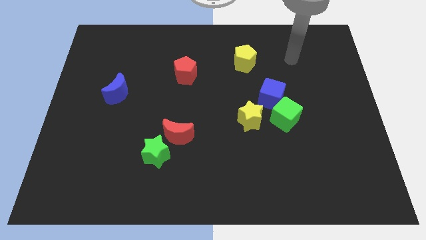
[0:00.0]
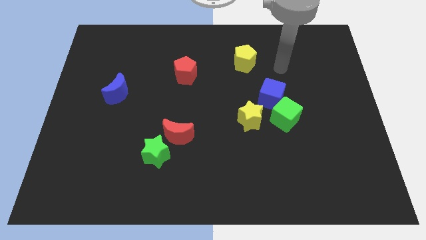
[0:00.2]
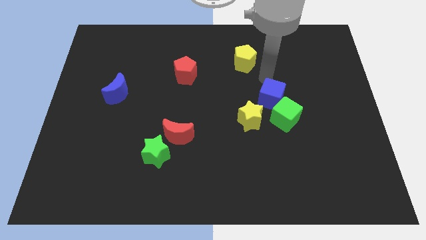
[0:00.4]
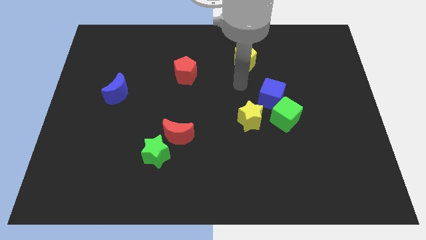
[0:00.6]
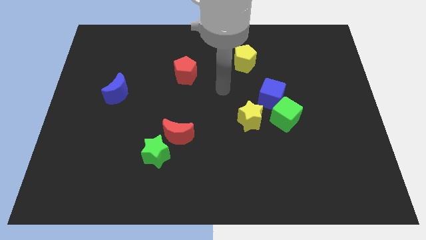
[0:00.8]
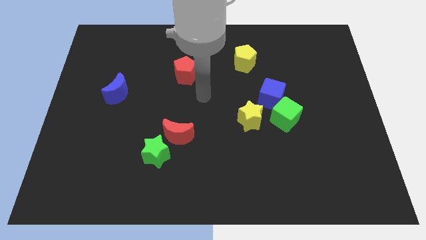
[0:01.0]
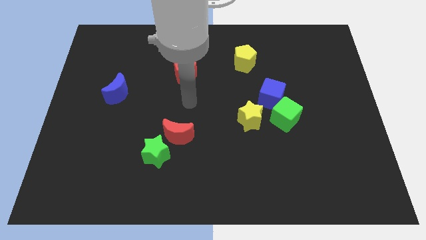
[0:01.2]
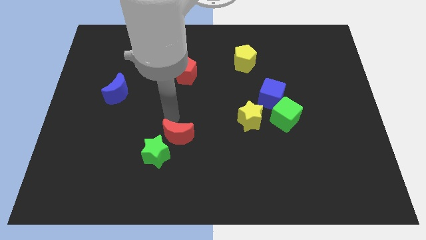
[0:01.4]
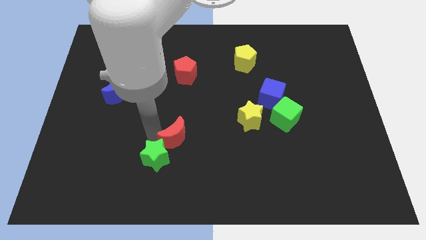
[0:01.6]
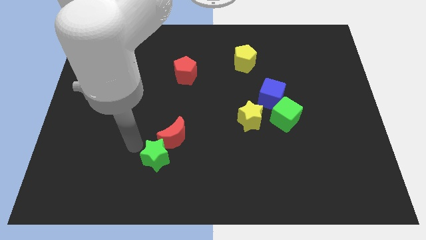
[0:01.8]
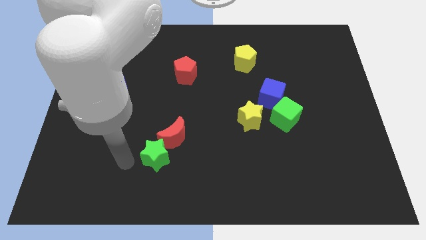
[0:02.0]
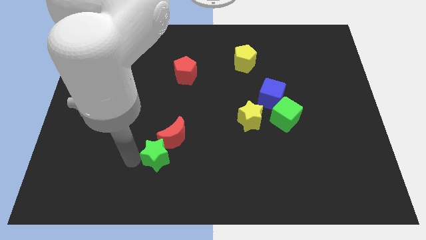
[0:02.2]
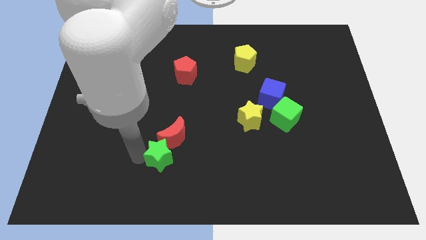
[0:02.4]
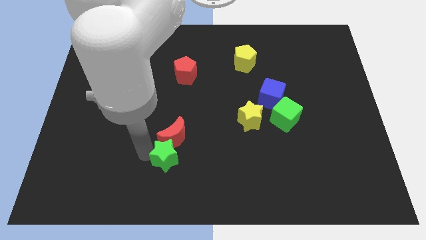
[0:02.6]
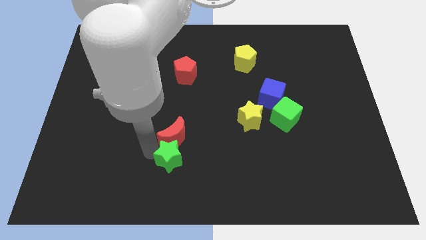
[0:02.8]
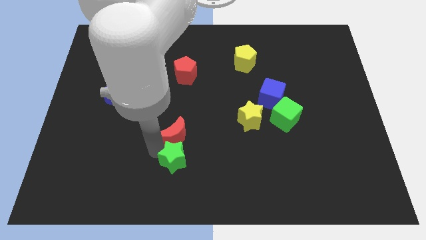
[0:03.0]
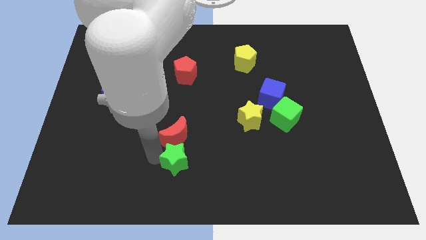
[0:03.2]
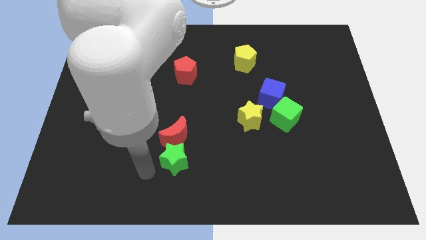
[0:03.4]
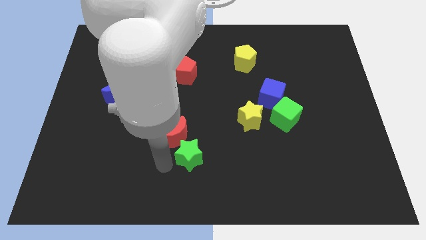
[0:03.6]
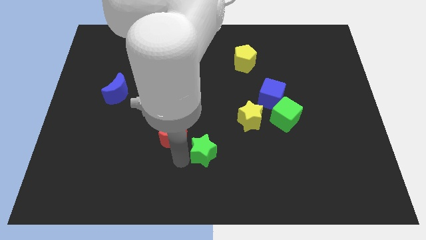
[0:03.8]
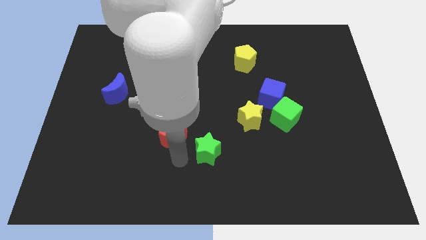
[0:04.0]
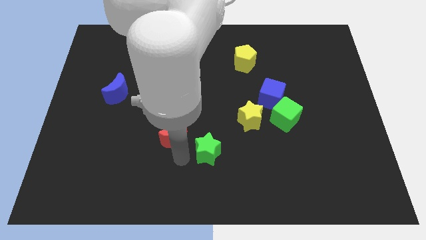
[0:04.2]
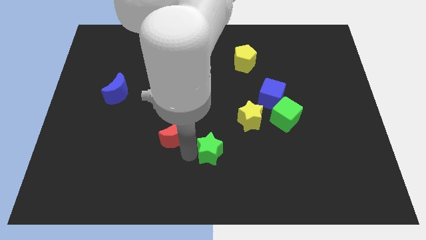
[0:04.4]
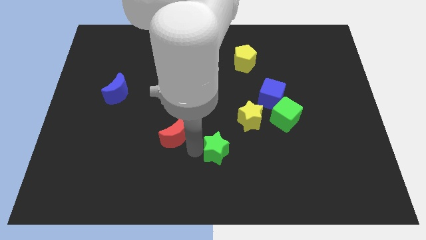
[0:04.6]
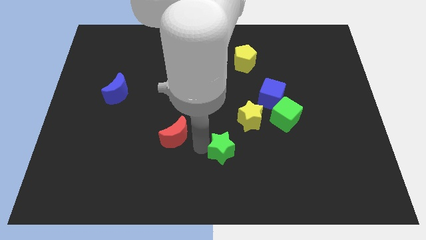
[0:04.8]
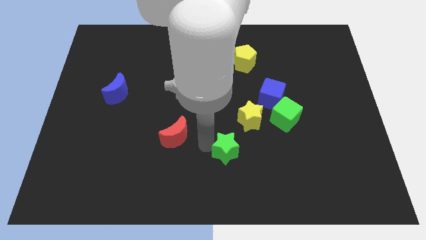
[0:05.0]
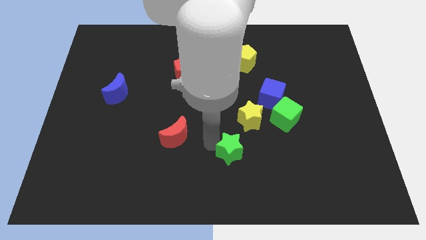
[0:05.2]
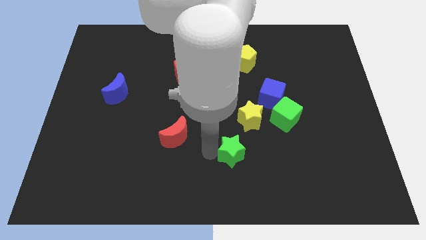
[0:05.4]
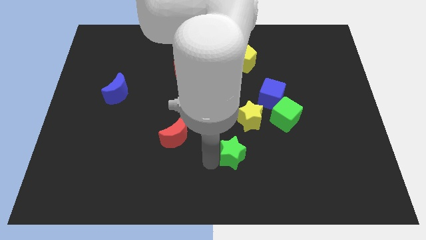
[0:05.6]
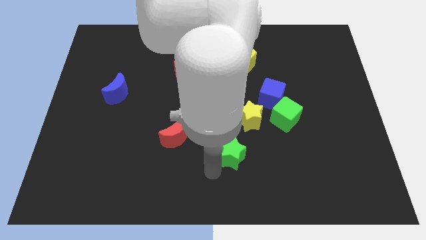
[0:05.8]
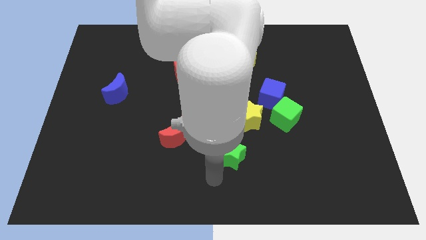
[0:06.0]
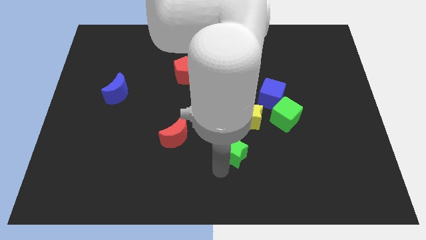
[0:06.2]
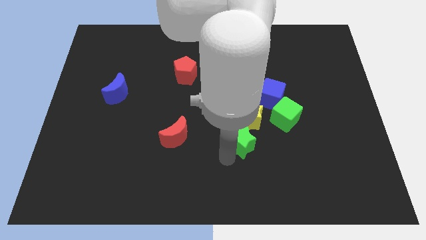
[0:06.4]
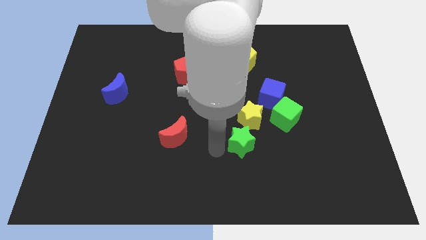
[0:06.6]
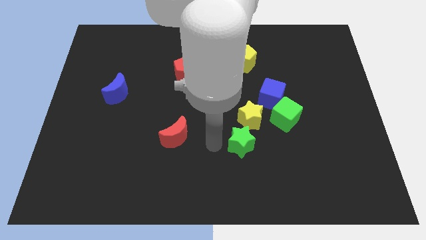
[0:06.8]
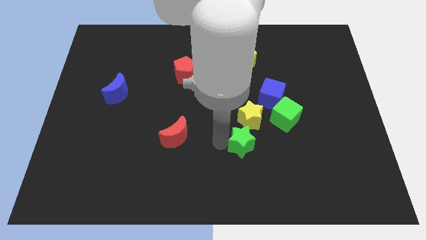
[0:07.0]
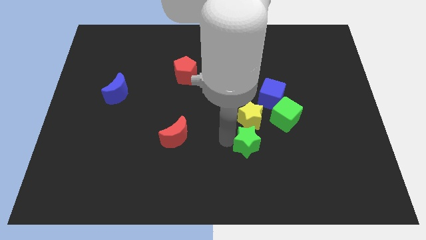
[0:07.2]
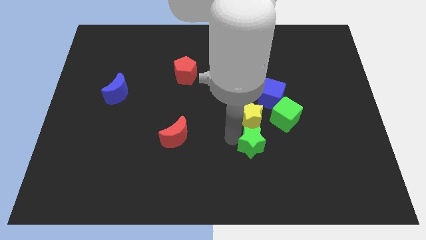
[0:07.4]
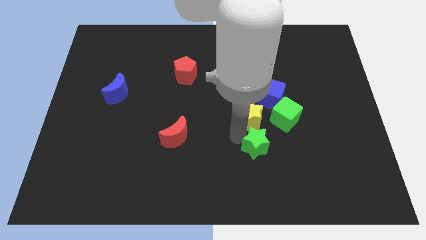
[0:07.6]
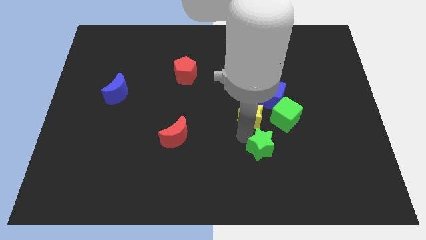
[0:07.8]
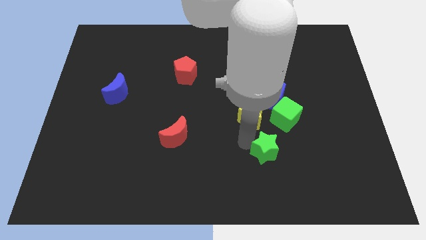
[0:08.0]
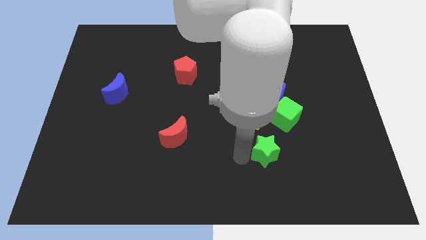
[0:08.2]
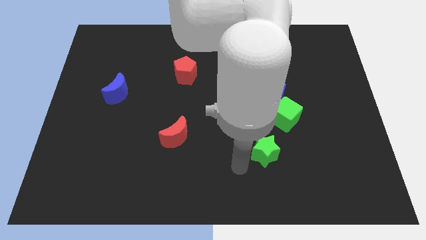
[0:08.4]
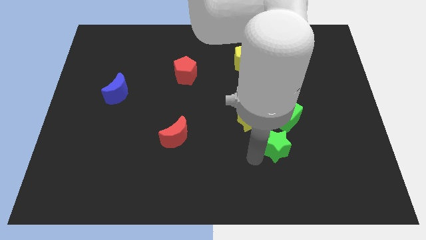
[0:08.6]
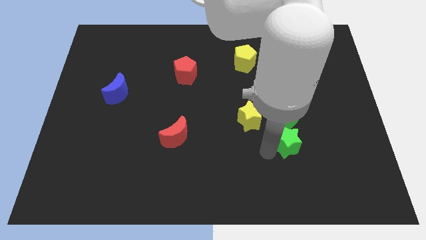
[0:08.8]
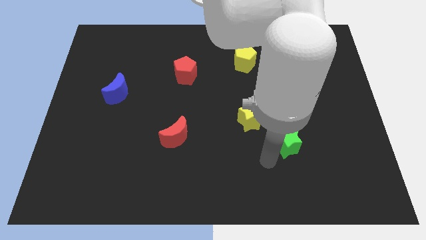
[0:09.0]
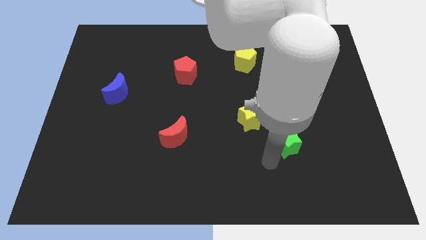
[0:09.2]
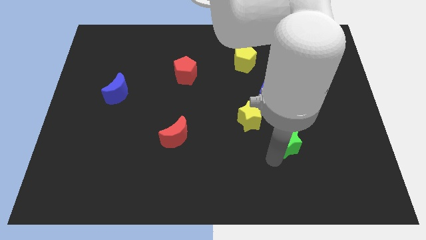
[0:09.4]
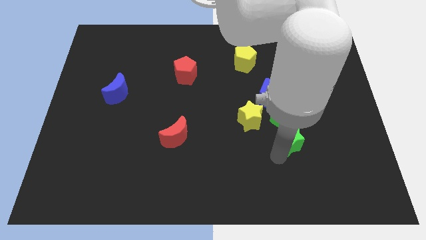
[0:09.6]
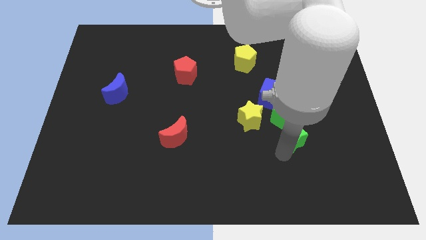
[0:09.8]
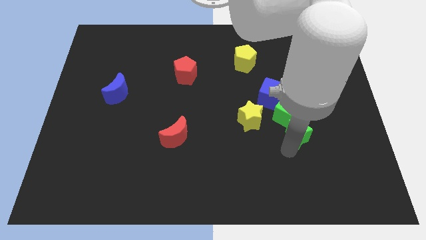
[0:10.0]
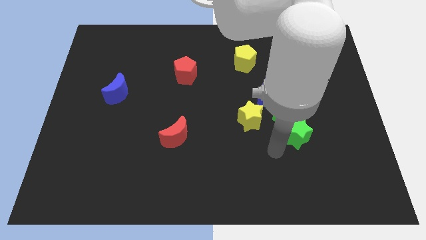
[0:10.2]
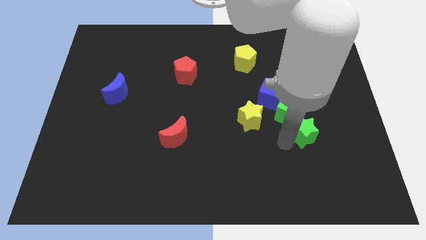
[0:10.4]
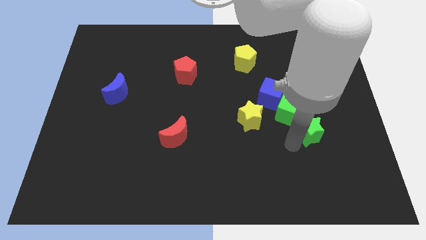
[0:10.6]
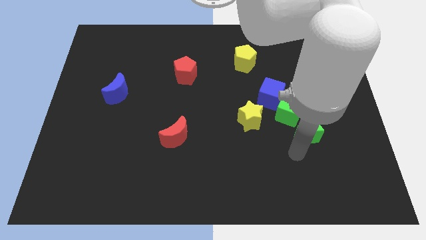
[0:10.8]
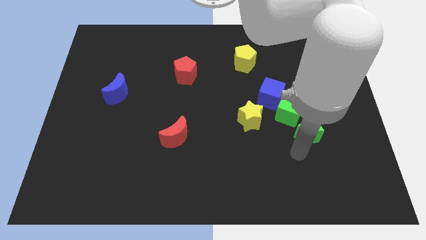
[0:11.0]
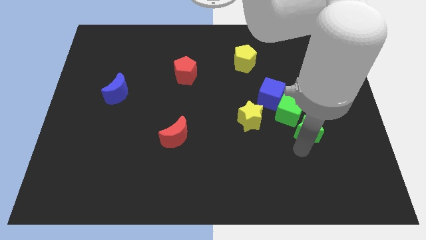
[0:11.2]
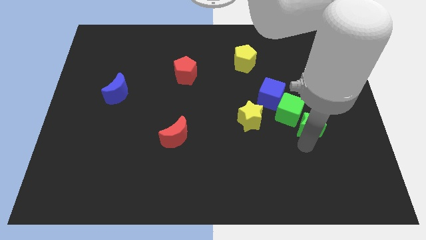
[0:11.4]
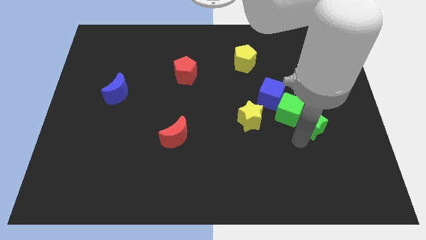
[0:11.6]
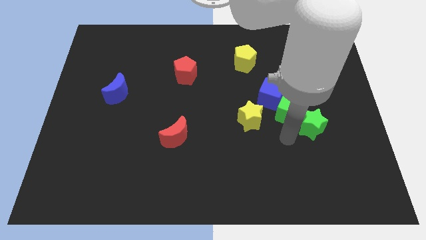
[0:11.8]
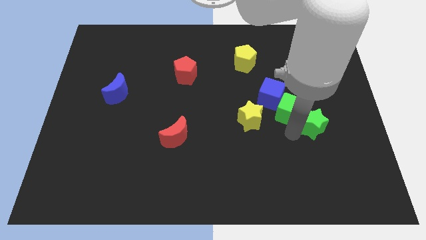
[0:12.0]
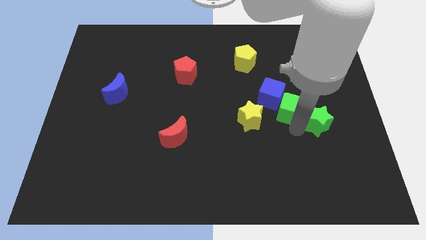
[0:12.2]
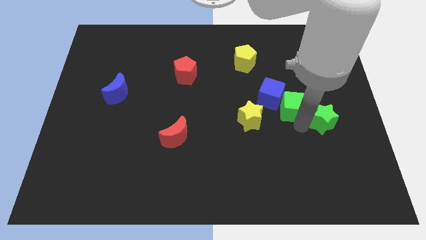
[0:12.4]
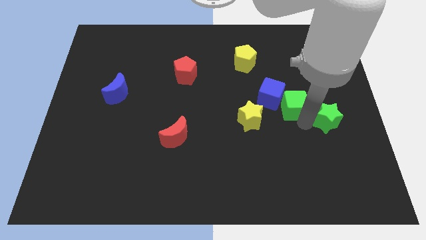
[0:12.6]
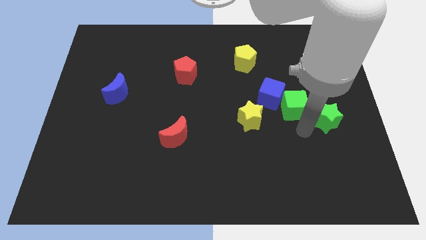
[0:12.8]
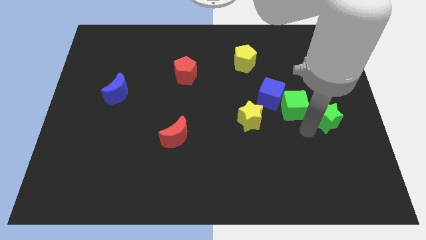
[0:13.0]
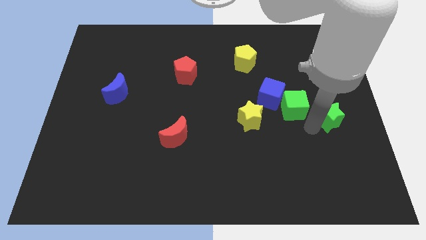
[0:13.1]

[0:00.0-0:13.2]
slide the green star to the right side

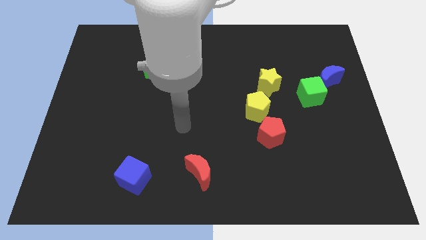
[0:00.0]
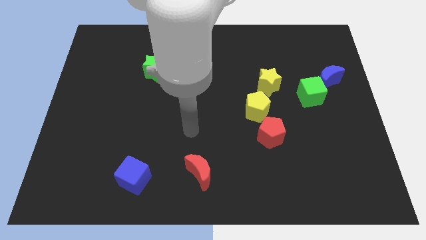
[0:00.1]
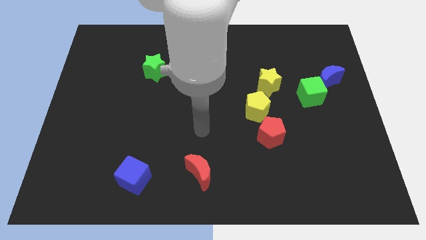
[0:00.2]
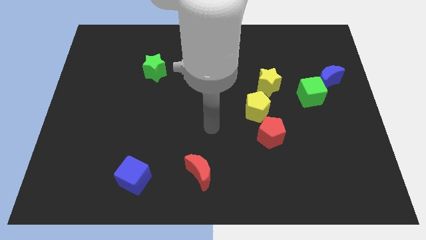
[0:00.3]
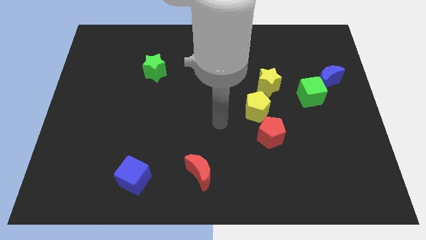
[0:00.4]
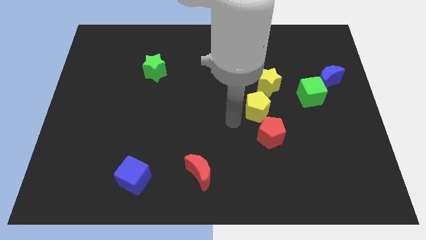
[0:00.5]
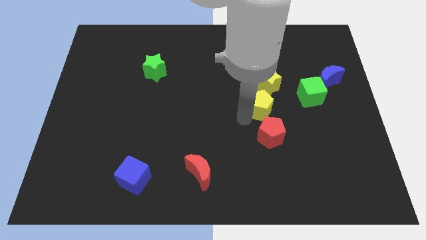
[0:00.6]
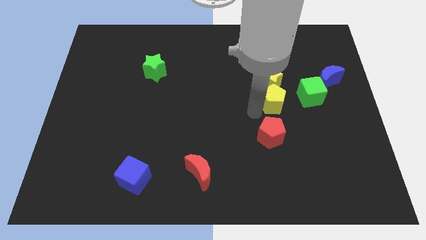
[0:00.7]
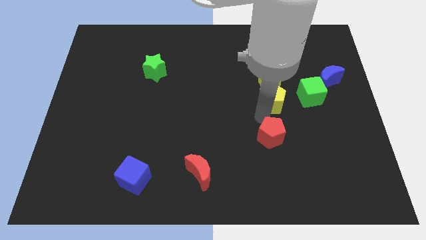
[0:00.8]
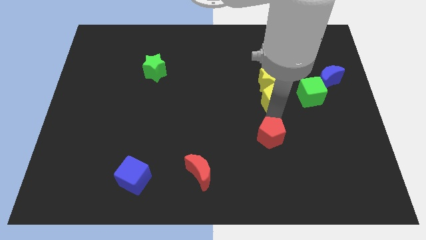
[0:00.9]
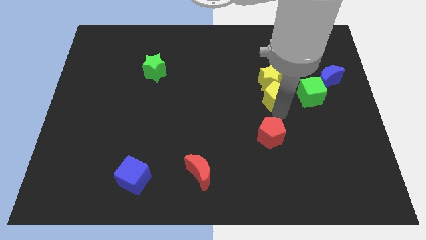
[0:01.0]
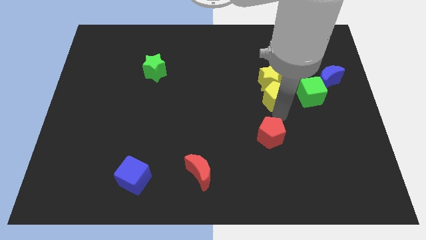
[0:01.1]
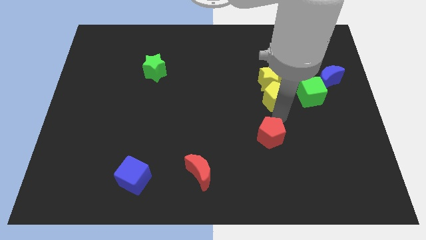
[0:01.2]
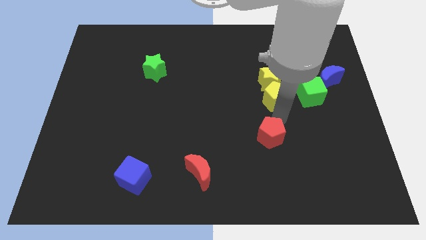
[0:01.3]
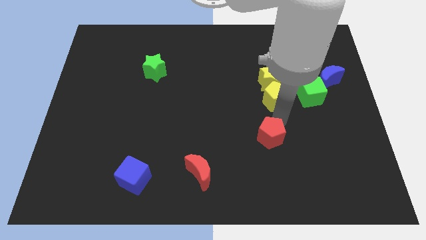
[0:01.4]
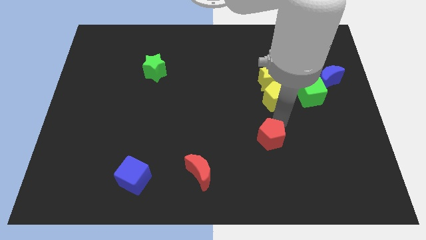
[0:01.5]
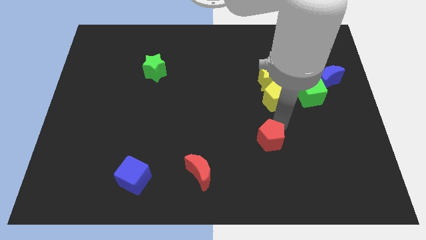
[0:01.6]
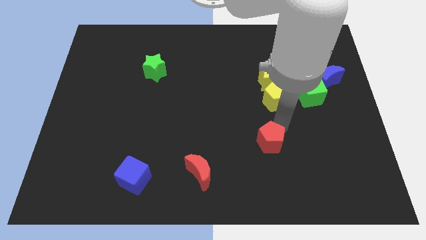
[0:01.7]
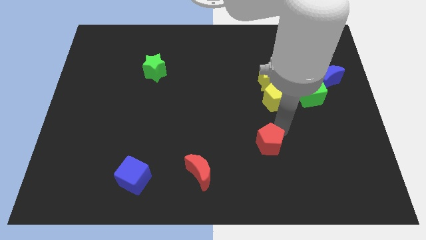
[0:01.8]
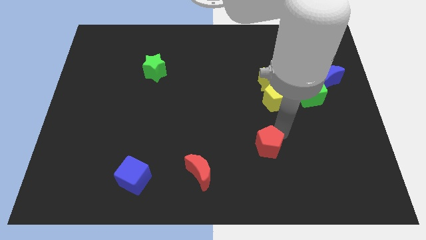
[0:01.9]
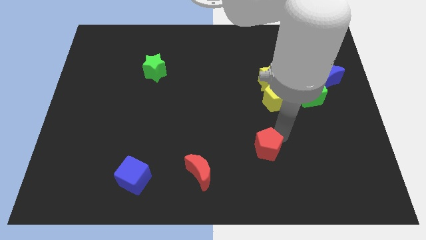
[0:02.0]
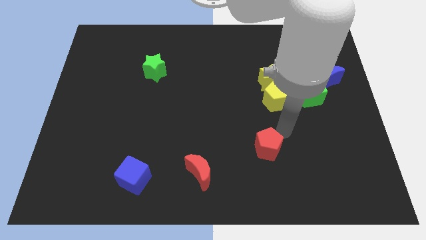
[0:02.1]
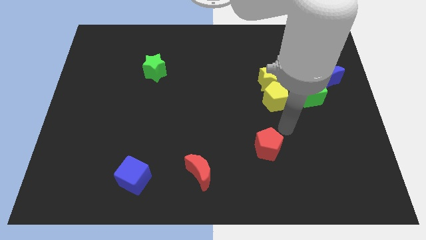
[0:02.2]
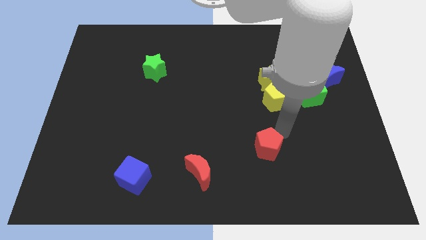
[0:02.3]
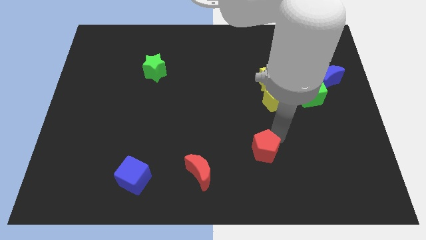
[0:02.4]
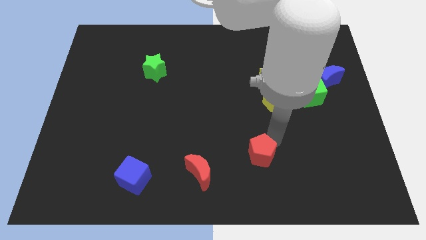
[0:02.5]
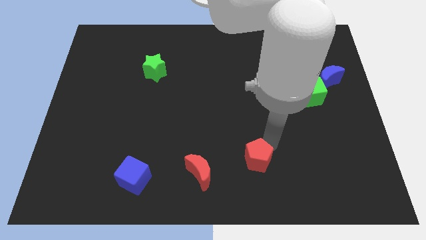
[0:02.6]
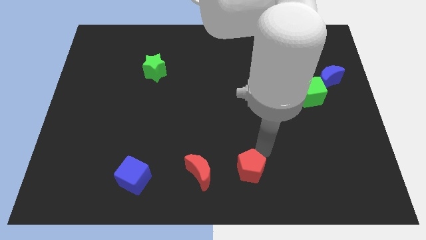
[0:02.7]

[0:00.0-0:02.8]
slide the red pentagon to the bottom
